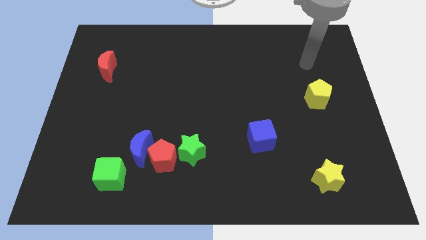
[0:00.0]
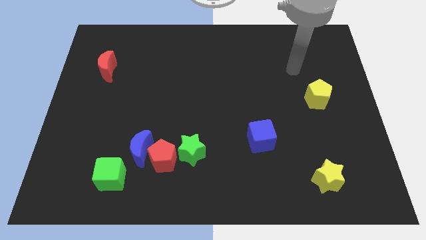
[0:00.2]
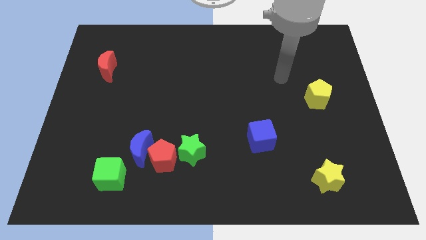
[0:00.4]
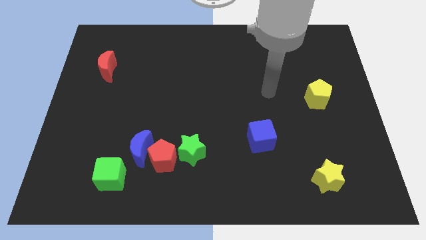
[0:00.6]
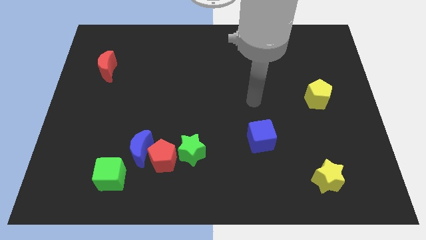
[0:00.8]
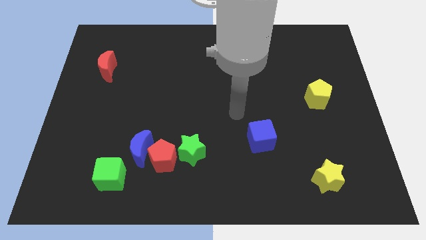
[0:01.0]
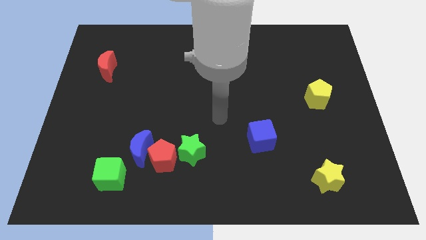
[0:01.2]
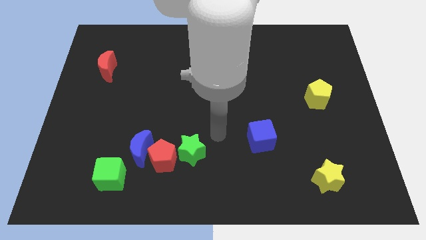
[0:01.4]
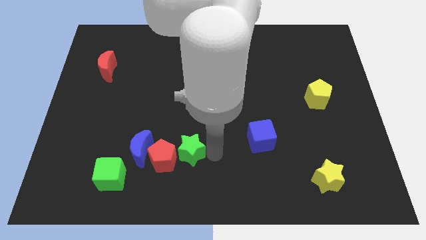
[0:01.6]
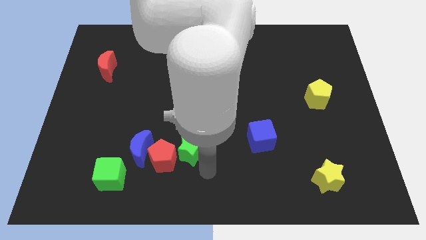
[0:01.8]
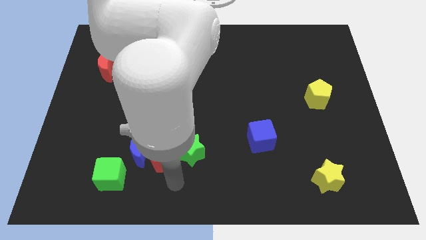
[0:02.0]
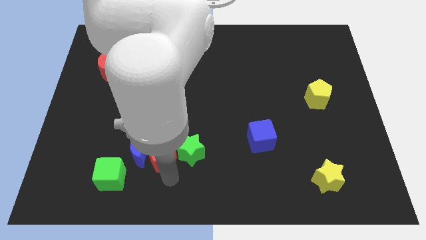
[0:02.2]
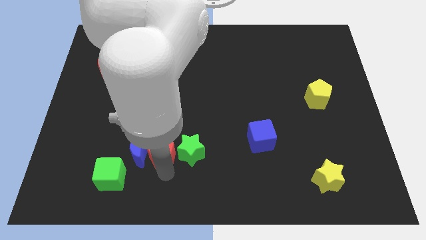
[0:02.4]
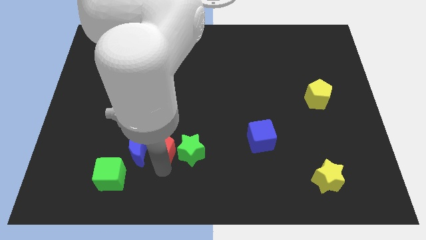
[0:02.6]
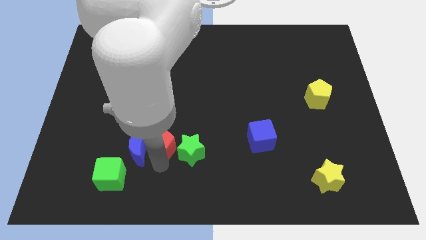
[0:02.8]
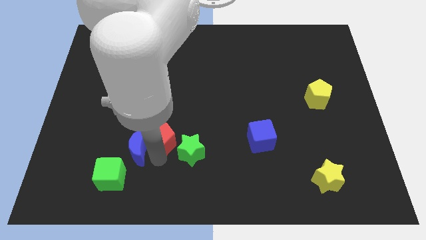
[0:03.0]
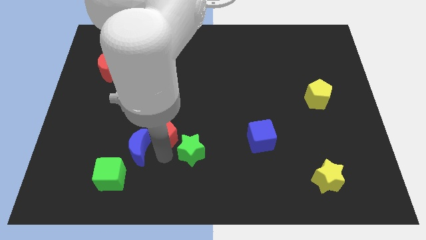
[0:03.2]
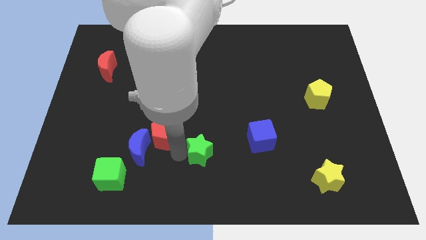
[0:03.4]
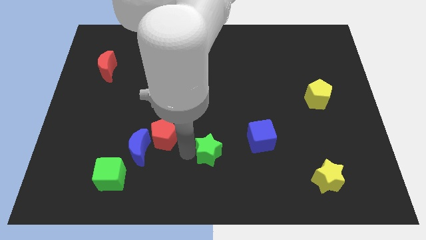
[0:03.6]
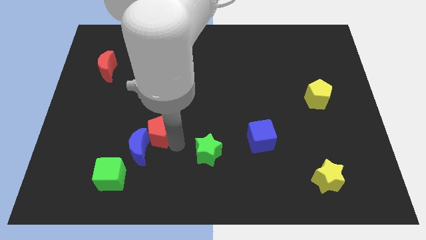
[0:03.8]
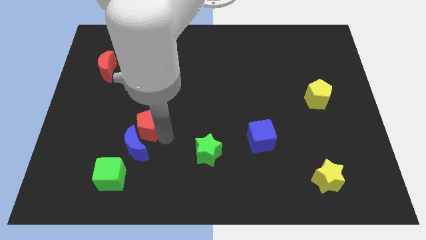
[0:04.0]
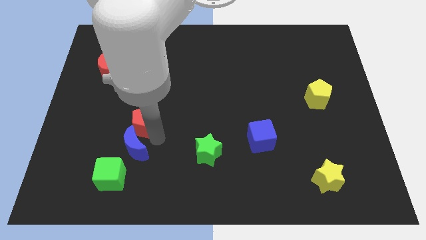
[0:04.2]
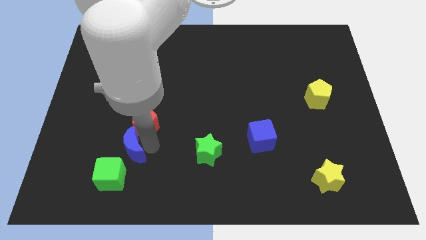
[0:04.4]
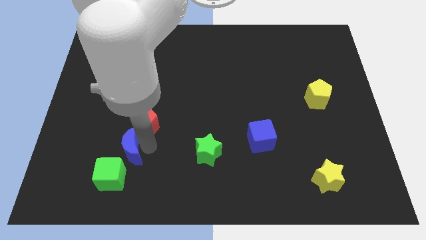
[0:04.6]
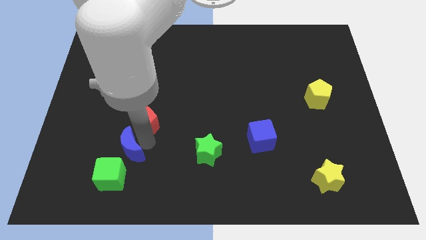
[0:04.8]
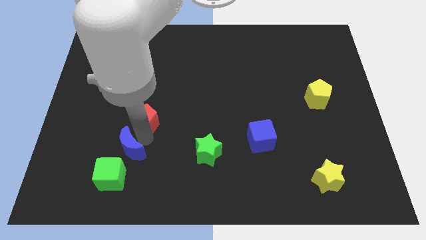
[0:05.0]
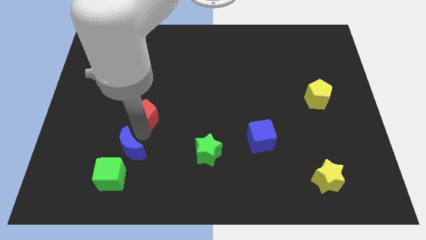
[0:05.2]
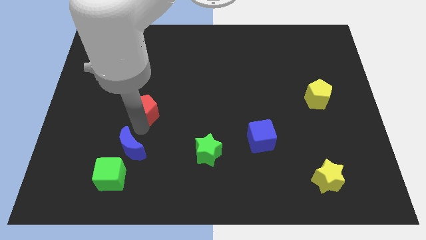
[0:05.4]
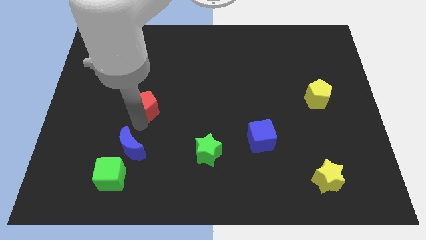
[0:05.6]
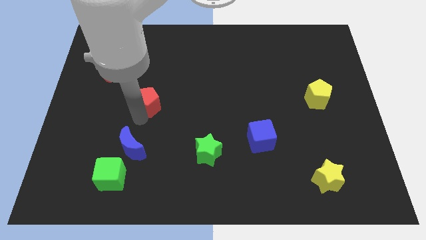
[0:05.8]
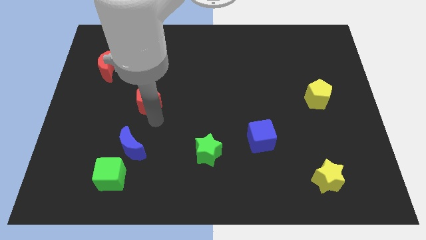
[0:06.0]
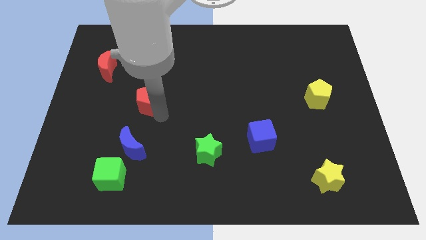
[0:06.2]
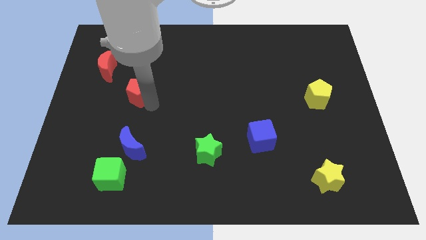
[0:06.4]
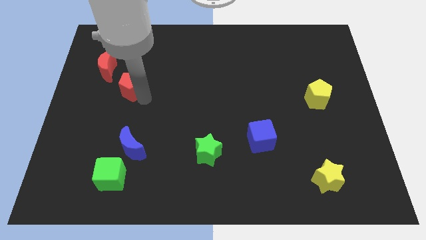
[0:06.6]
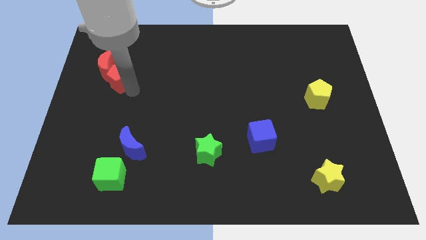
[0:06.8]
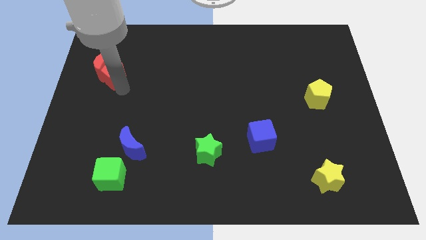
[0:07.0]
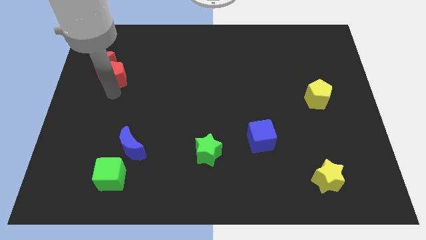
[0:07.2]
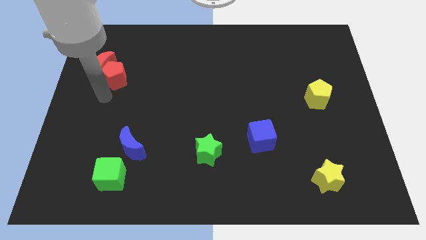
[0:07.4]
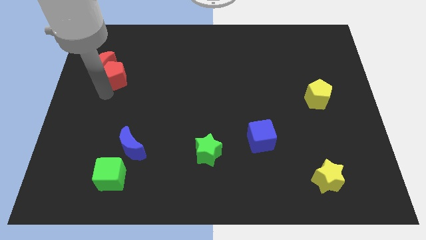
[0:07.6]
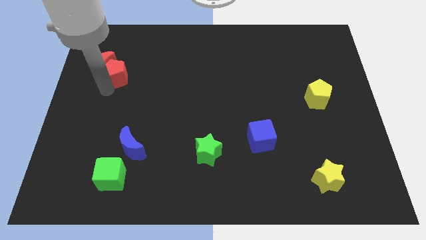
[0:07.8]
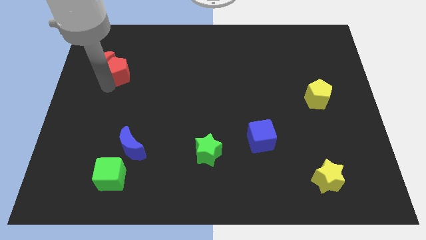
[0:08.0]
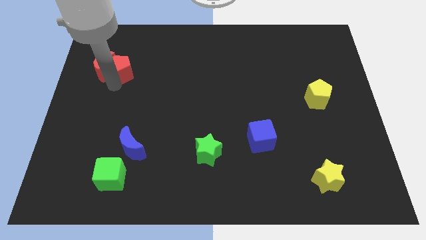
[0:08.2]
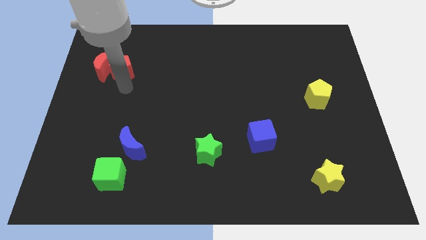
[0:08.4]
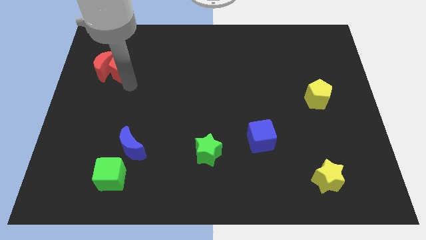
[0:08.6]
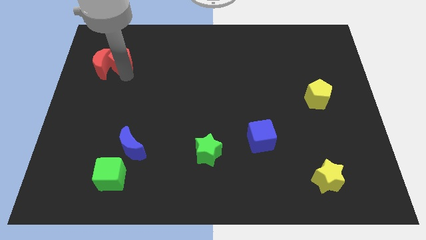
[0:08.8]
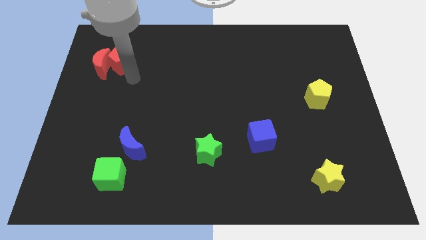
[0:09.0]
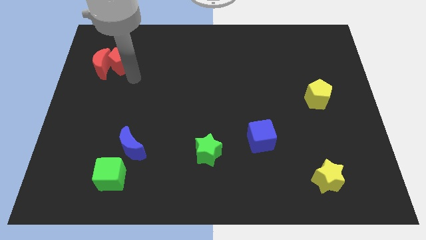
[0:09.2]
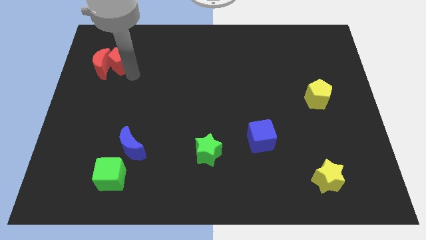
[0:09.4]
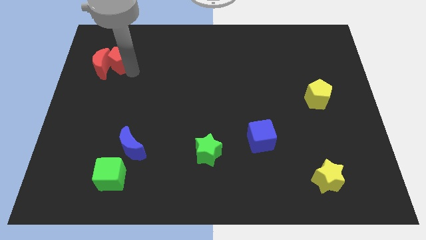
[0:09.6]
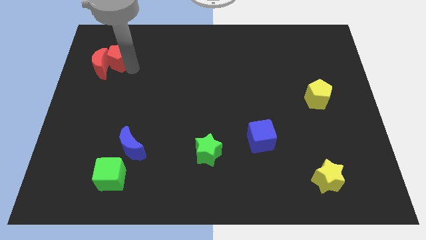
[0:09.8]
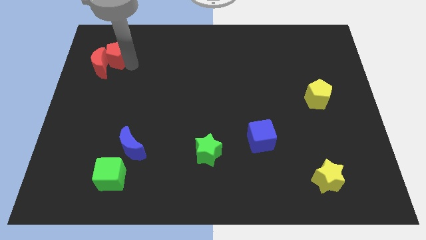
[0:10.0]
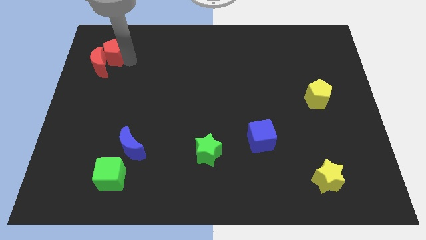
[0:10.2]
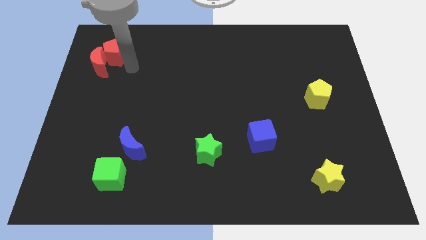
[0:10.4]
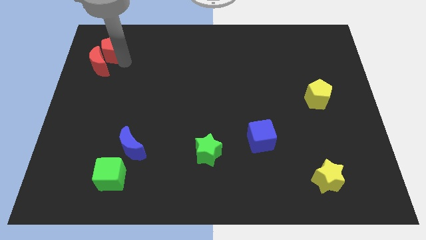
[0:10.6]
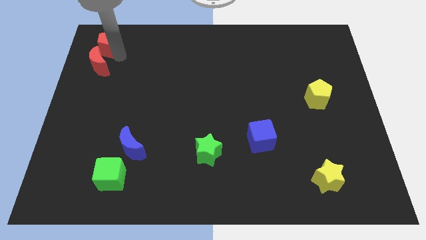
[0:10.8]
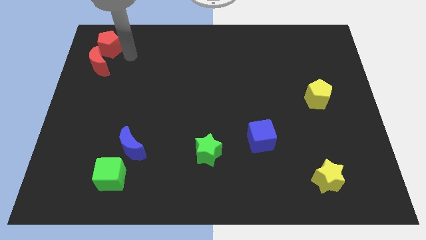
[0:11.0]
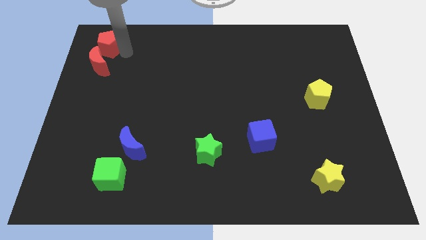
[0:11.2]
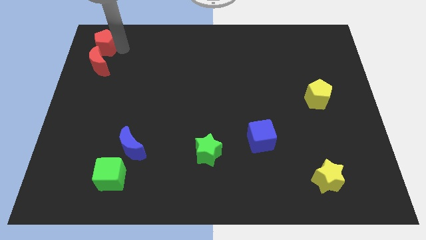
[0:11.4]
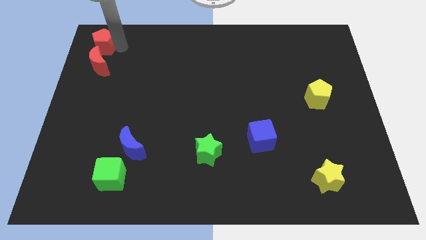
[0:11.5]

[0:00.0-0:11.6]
move the red pentagon to the top left
